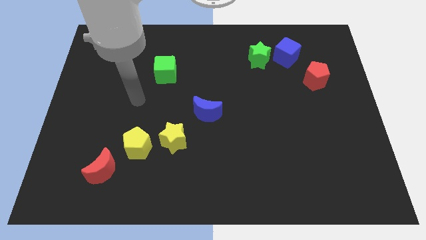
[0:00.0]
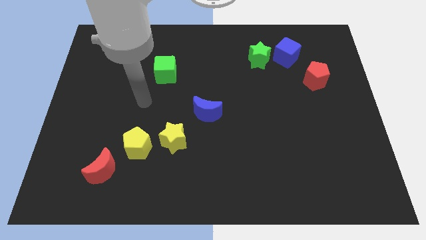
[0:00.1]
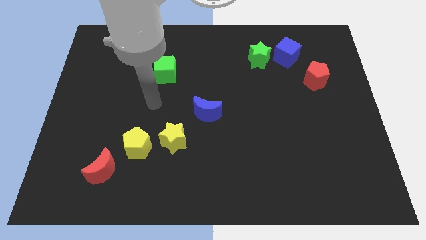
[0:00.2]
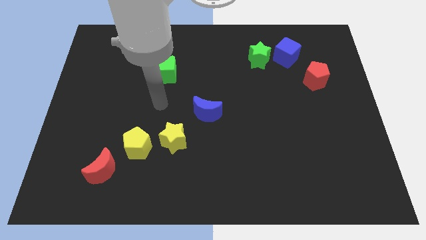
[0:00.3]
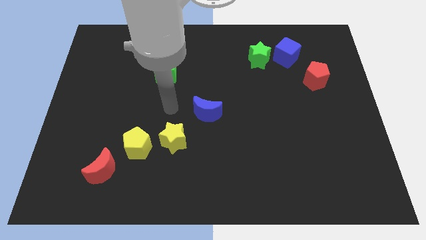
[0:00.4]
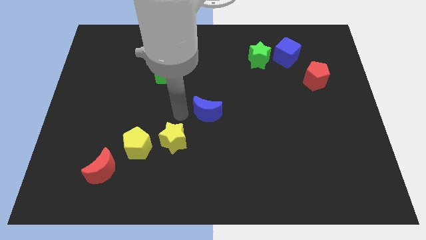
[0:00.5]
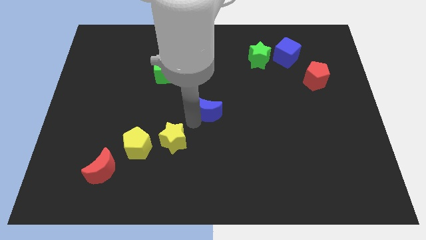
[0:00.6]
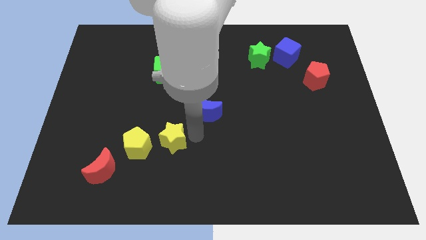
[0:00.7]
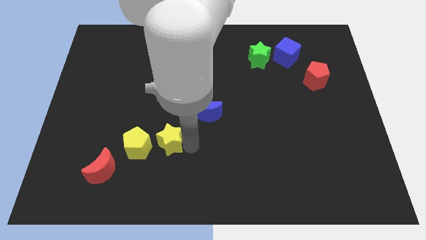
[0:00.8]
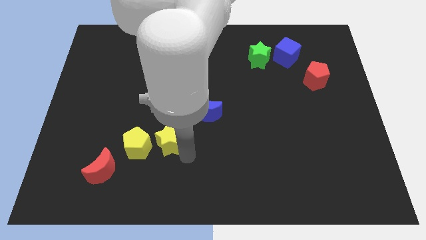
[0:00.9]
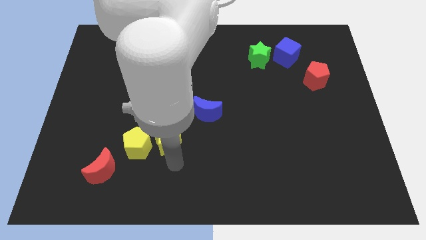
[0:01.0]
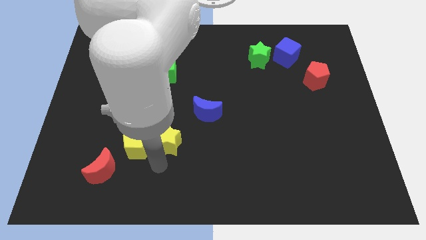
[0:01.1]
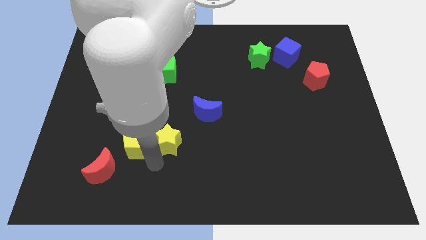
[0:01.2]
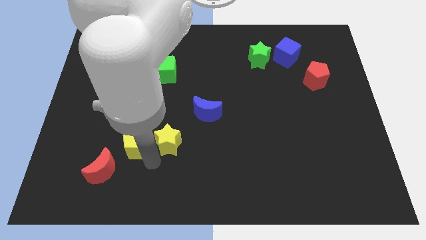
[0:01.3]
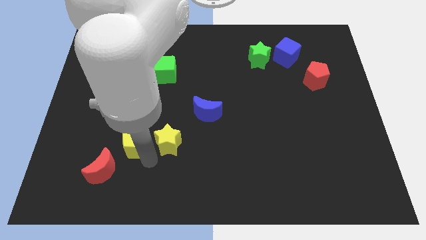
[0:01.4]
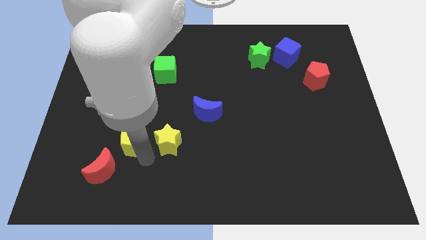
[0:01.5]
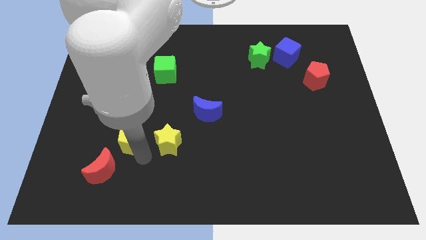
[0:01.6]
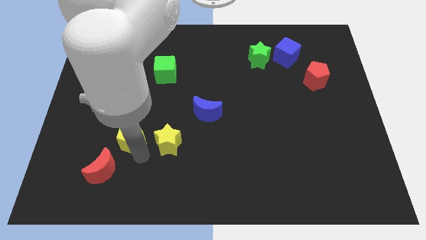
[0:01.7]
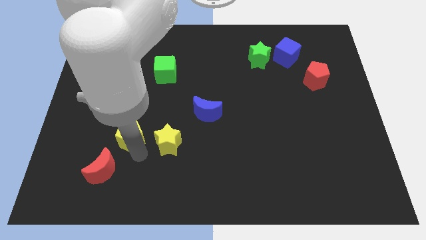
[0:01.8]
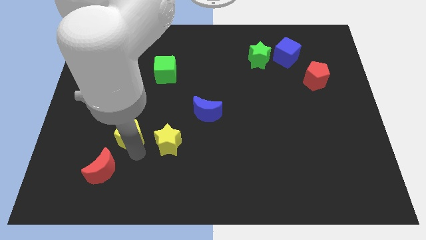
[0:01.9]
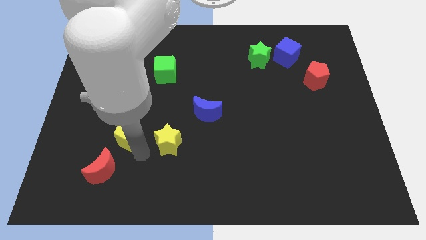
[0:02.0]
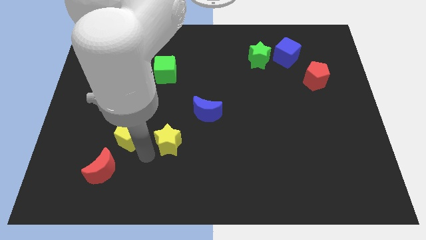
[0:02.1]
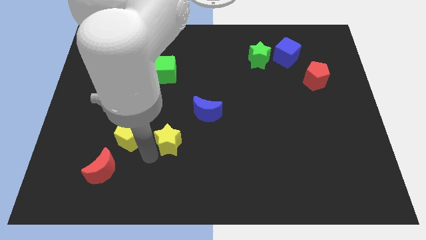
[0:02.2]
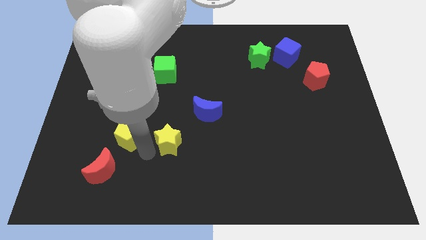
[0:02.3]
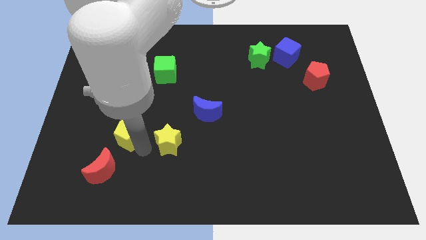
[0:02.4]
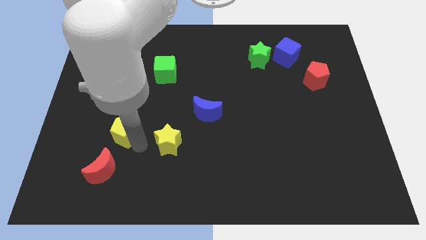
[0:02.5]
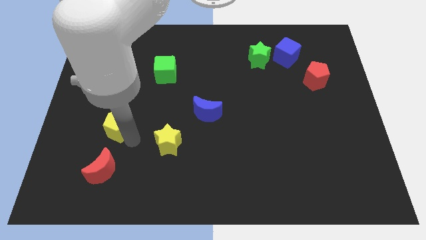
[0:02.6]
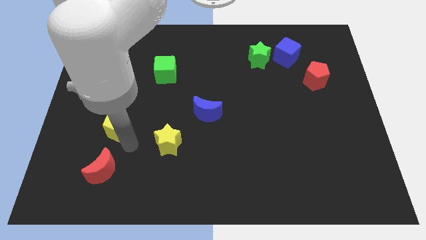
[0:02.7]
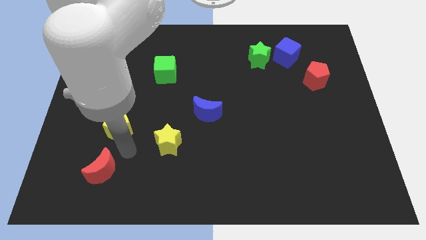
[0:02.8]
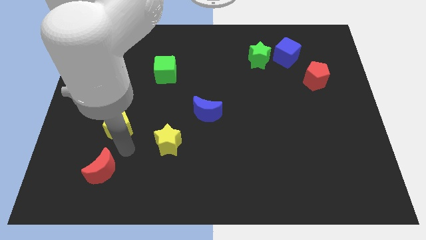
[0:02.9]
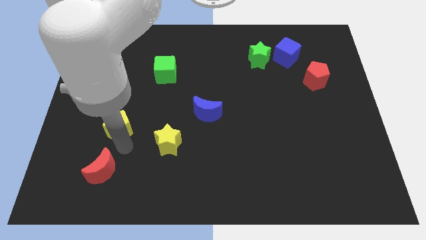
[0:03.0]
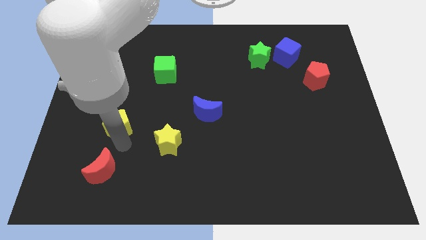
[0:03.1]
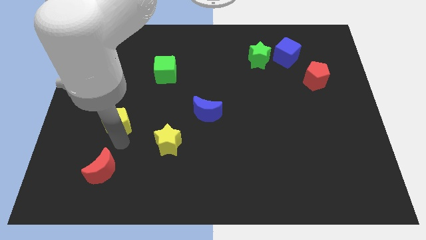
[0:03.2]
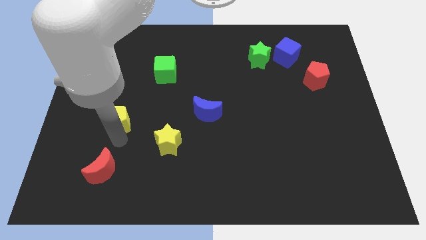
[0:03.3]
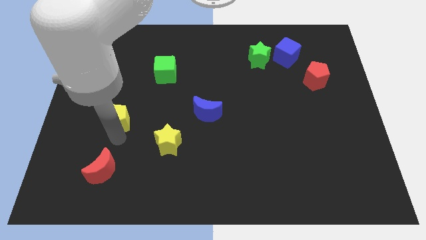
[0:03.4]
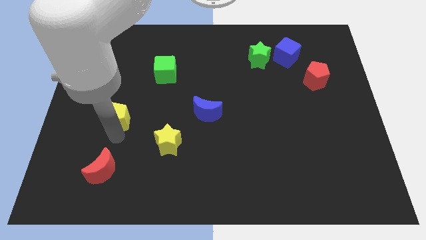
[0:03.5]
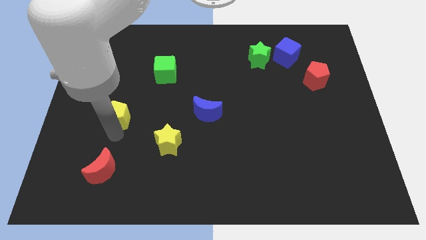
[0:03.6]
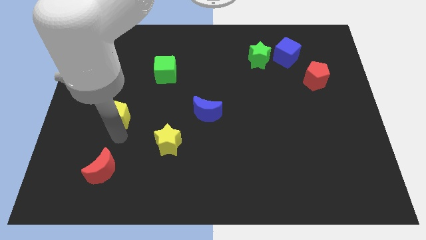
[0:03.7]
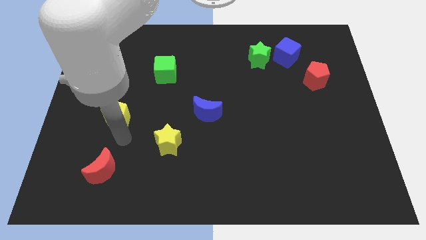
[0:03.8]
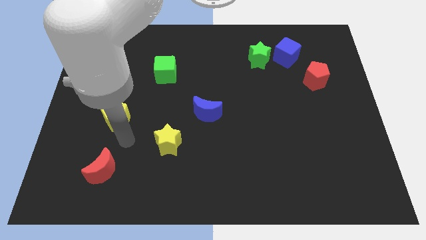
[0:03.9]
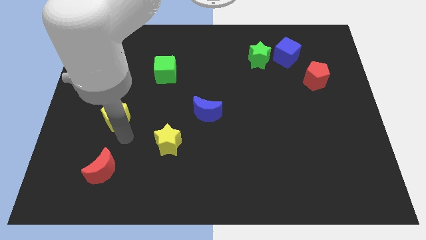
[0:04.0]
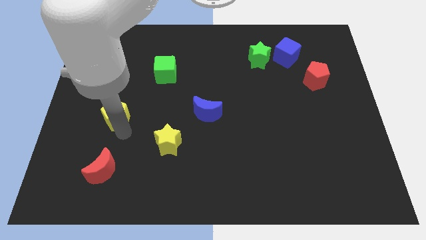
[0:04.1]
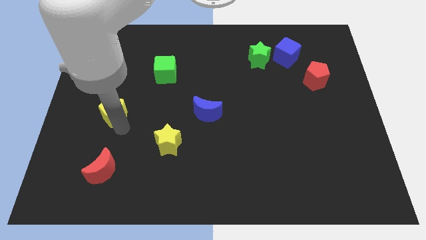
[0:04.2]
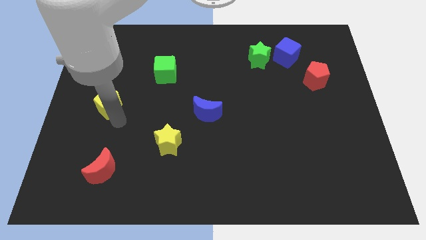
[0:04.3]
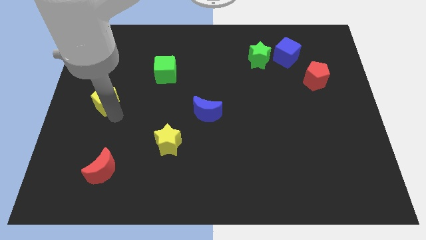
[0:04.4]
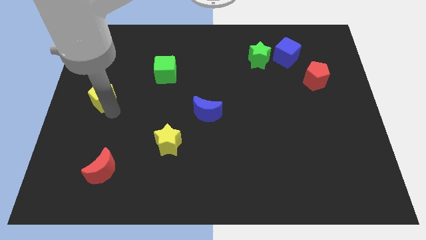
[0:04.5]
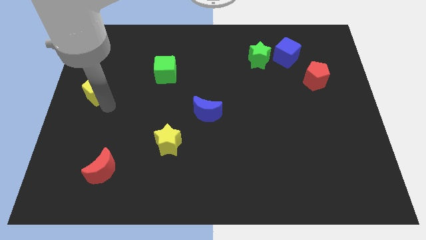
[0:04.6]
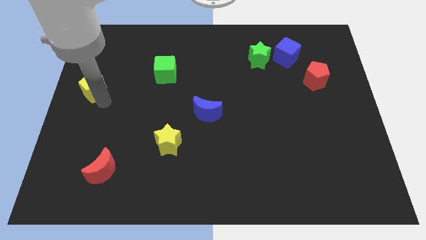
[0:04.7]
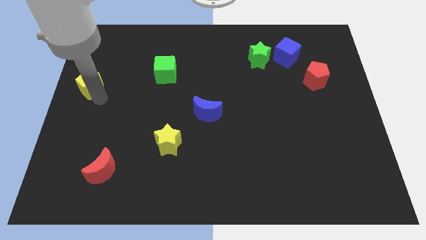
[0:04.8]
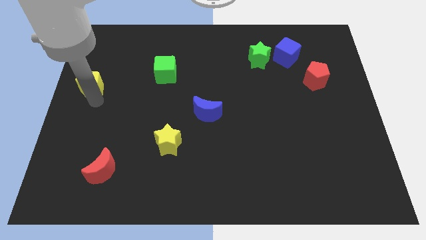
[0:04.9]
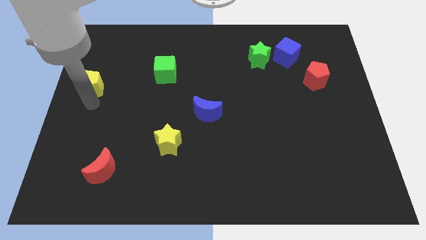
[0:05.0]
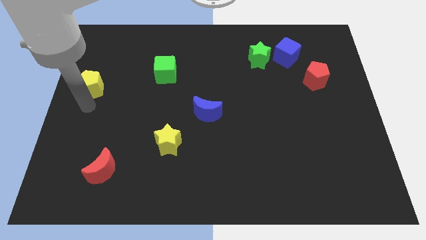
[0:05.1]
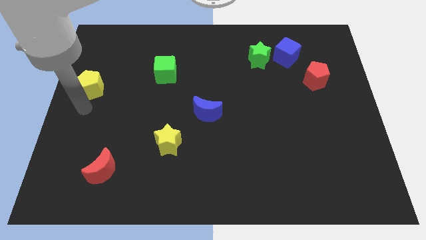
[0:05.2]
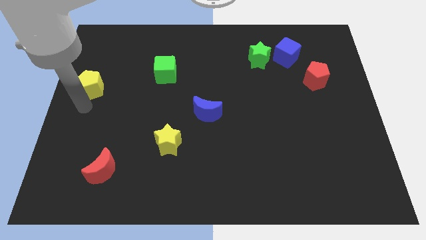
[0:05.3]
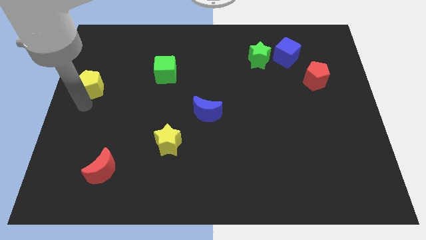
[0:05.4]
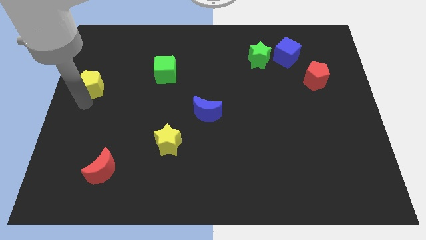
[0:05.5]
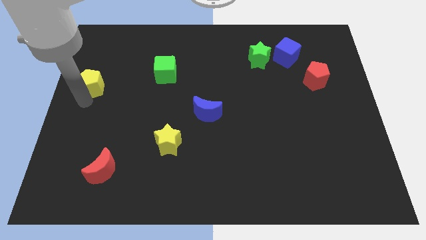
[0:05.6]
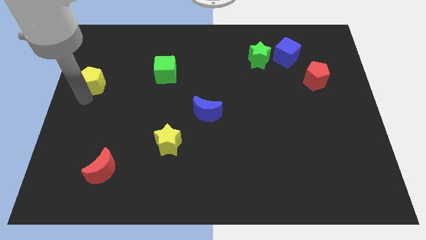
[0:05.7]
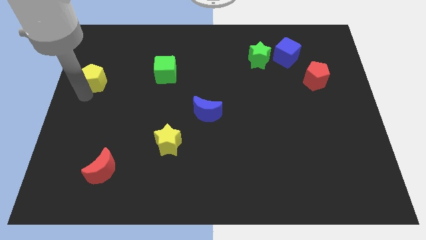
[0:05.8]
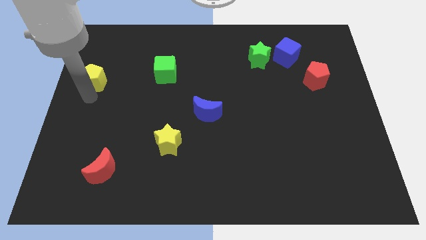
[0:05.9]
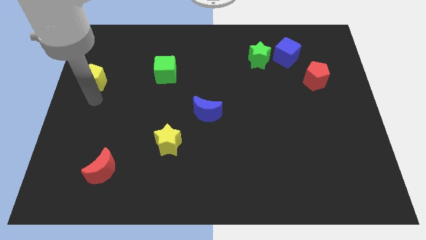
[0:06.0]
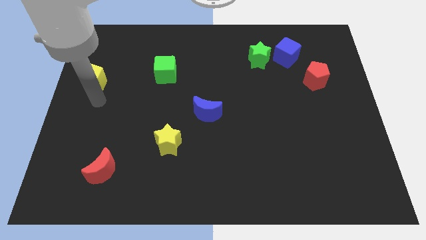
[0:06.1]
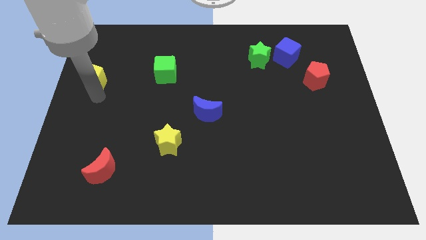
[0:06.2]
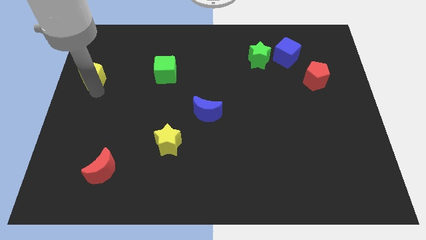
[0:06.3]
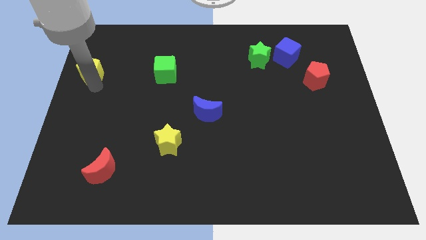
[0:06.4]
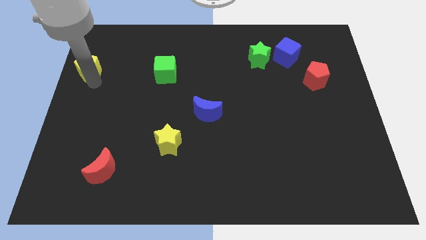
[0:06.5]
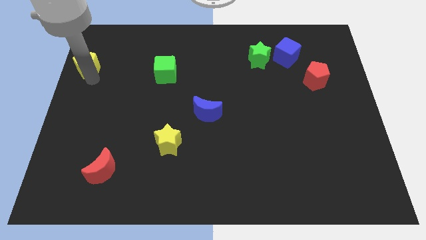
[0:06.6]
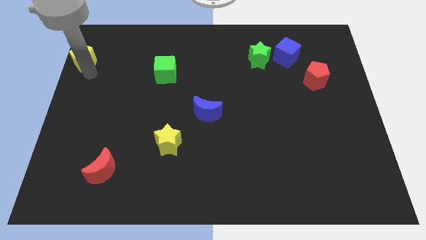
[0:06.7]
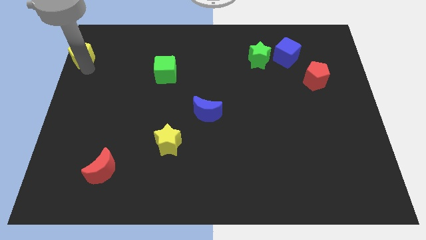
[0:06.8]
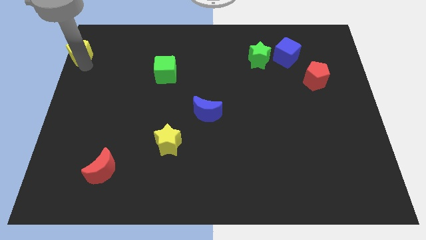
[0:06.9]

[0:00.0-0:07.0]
move the yellow pentagon to the upper left corner
